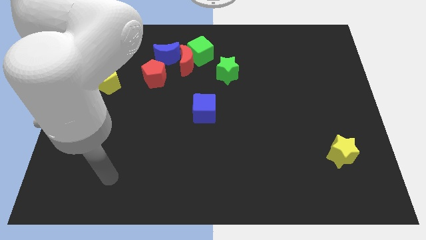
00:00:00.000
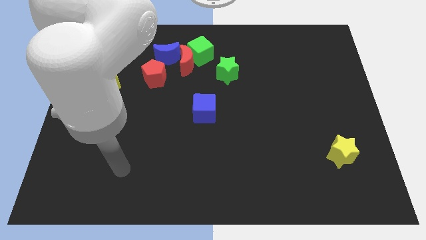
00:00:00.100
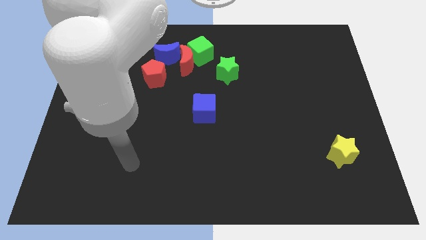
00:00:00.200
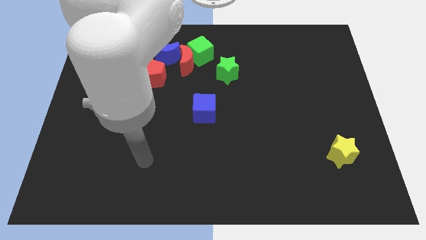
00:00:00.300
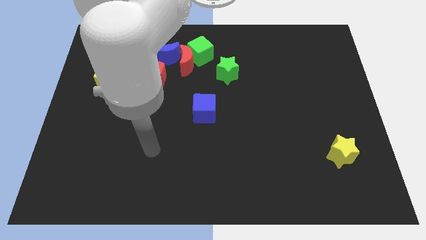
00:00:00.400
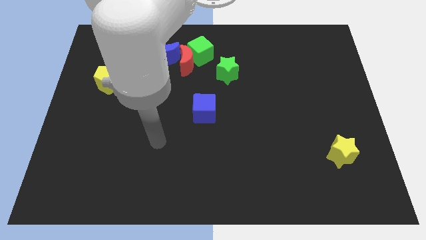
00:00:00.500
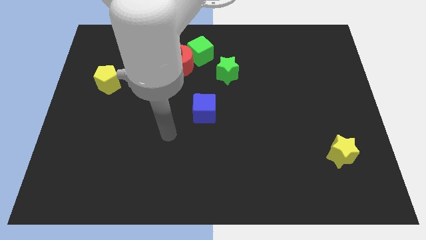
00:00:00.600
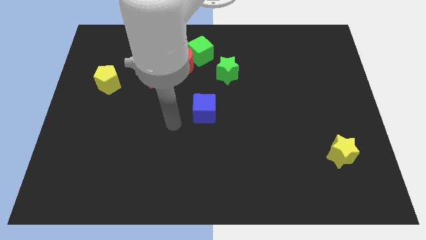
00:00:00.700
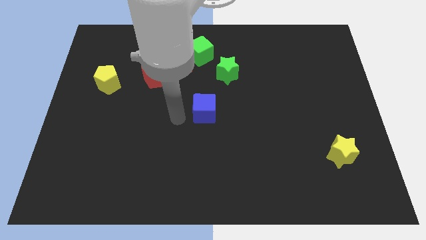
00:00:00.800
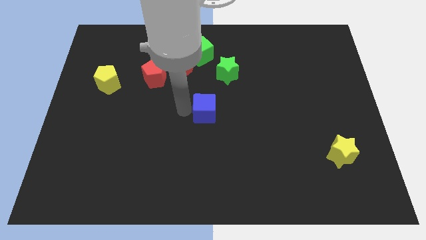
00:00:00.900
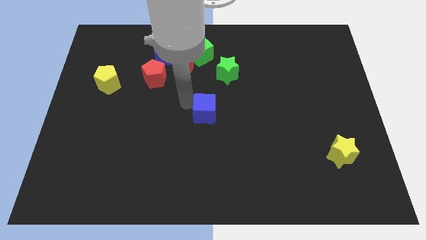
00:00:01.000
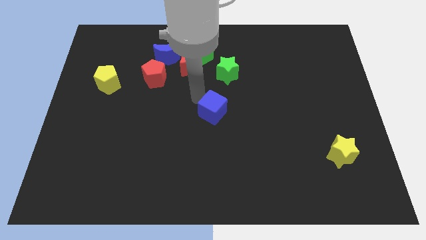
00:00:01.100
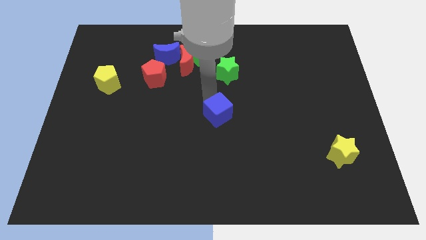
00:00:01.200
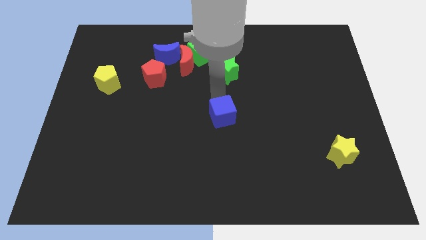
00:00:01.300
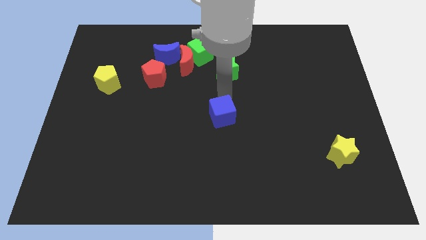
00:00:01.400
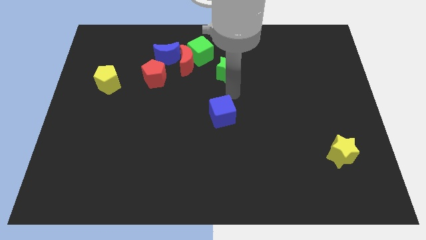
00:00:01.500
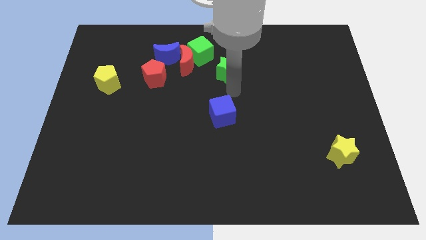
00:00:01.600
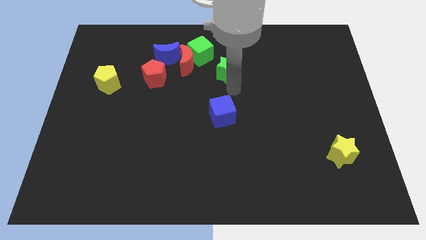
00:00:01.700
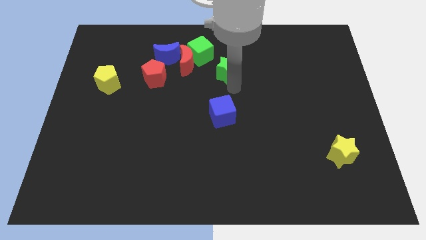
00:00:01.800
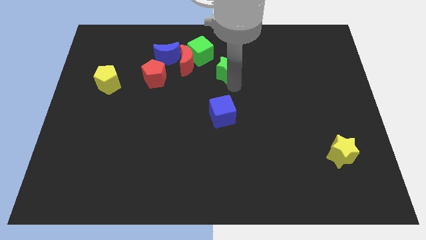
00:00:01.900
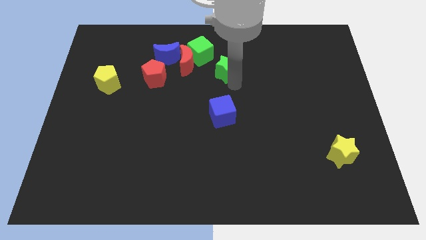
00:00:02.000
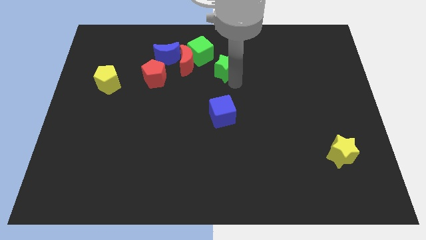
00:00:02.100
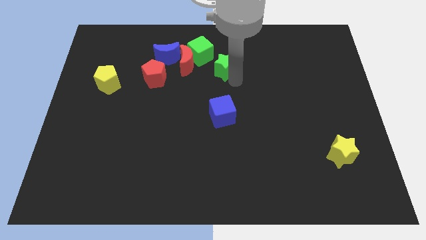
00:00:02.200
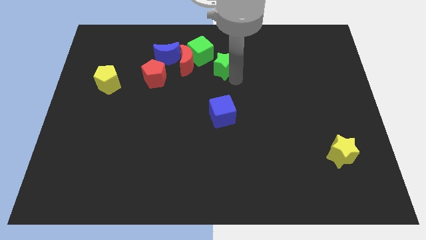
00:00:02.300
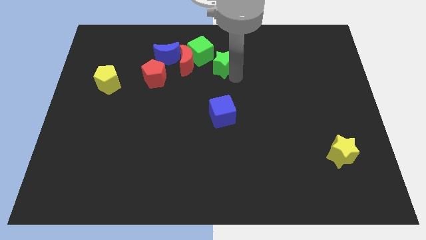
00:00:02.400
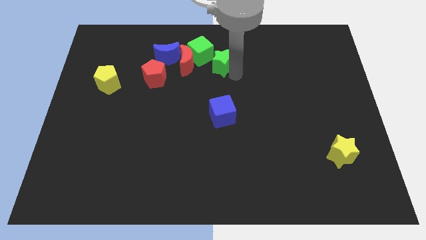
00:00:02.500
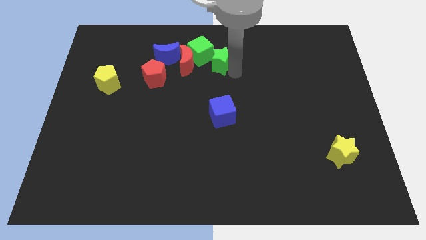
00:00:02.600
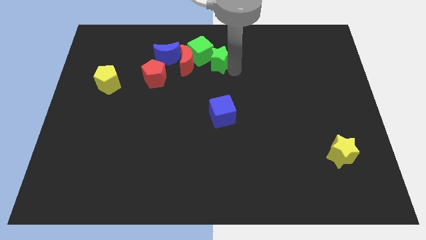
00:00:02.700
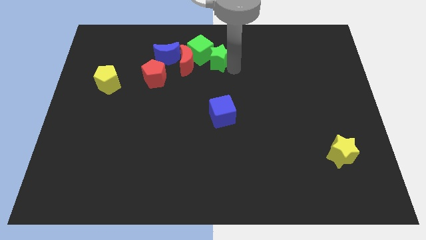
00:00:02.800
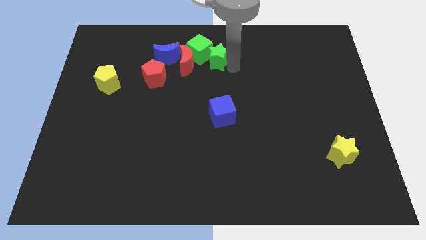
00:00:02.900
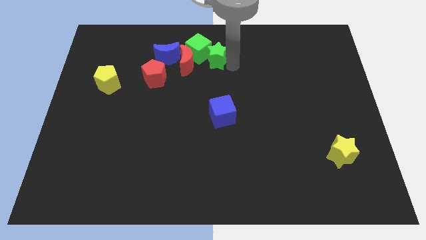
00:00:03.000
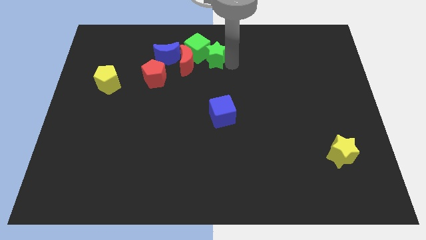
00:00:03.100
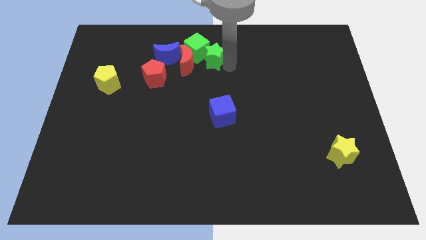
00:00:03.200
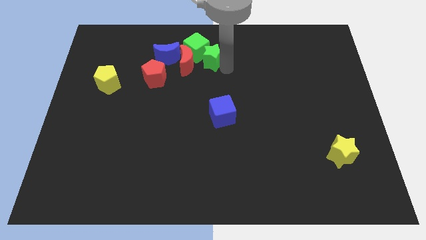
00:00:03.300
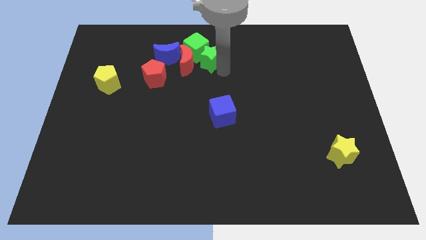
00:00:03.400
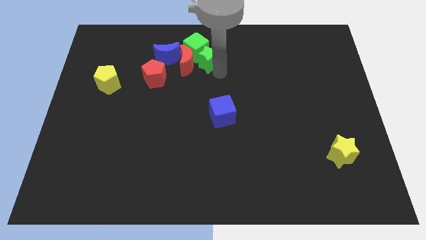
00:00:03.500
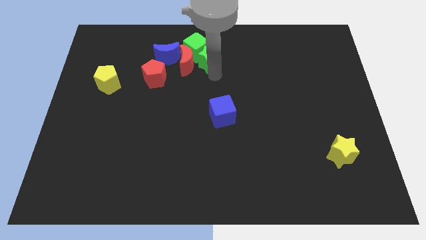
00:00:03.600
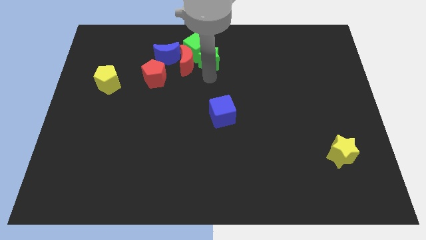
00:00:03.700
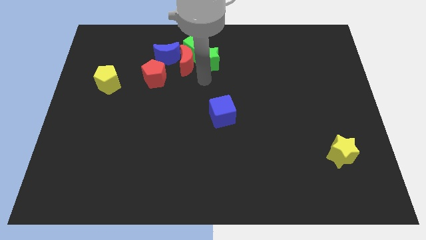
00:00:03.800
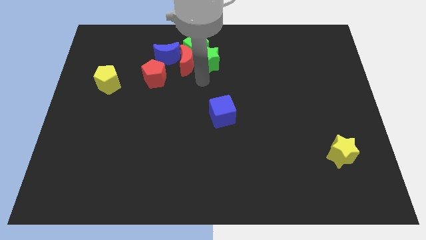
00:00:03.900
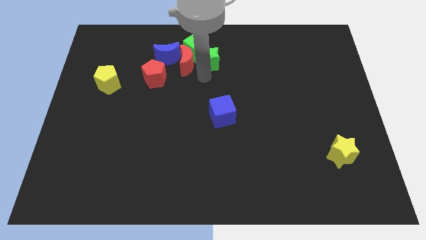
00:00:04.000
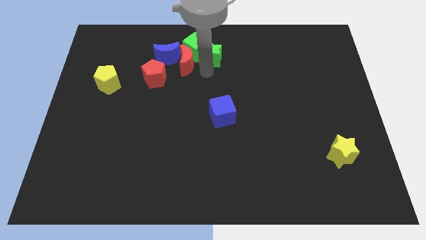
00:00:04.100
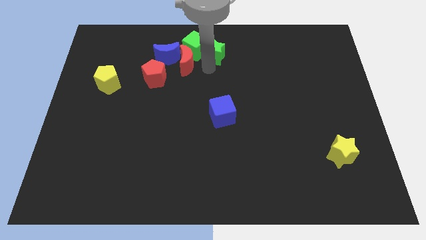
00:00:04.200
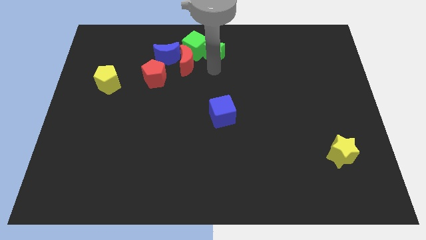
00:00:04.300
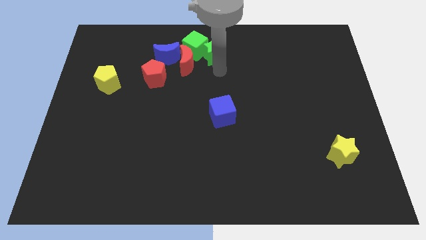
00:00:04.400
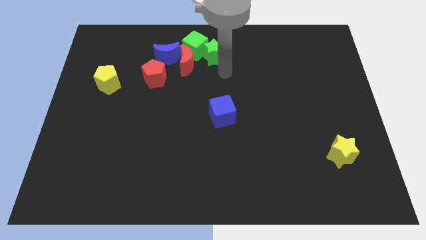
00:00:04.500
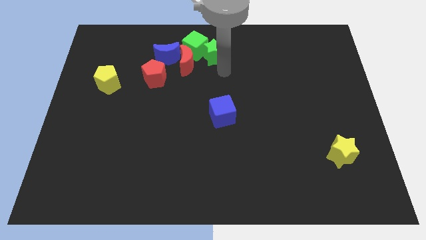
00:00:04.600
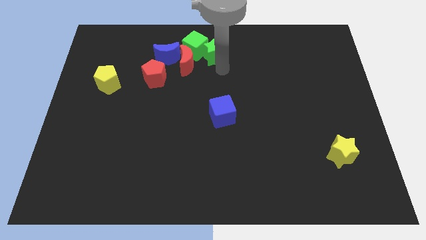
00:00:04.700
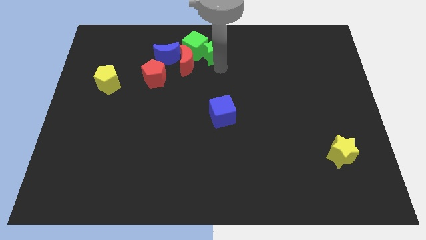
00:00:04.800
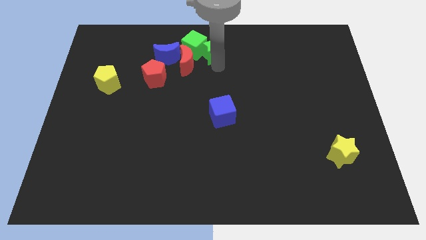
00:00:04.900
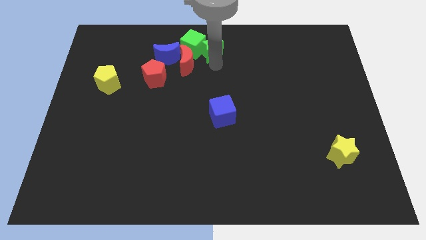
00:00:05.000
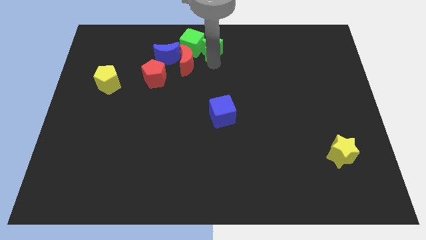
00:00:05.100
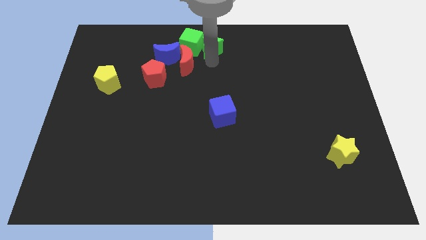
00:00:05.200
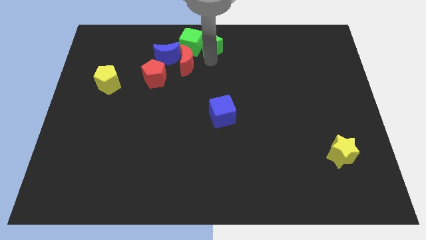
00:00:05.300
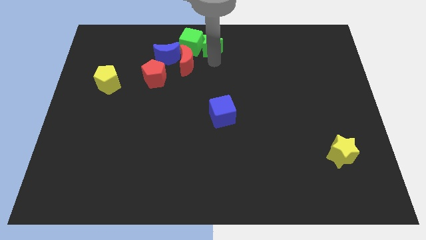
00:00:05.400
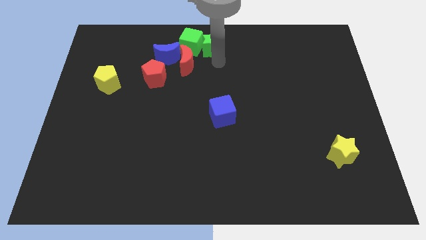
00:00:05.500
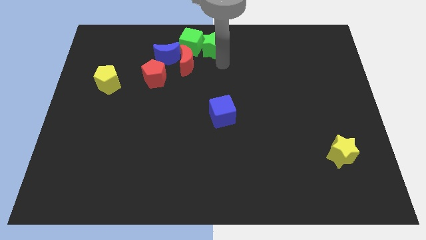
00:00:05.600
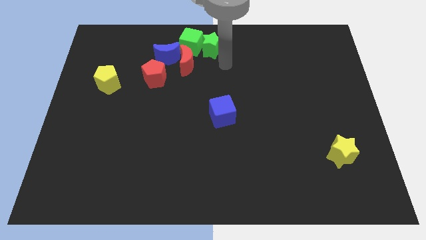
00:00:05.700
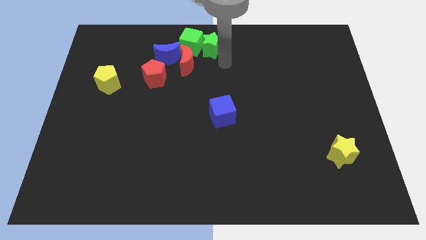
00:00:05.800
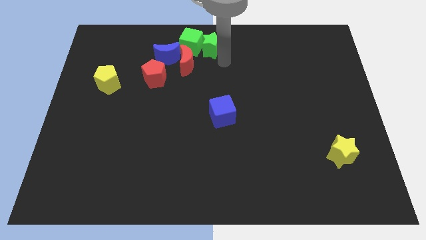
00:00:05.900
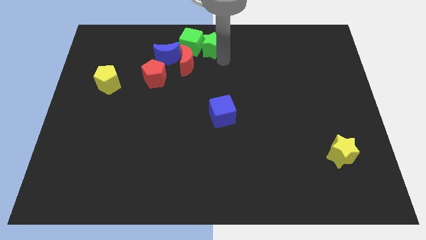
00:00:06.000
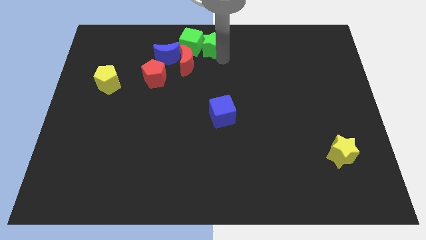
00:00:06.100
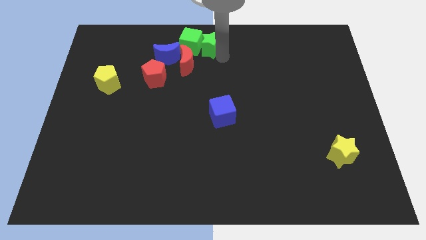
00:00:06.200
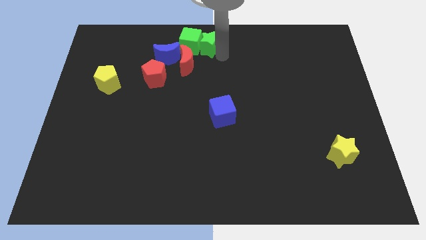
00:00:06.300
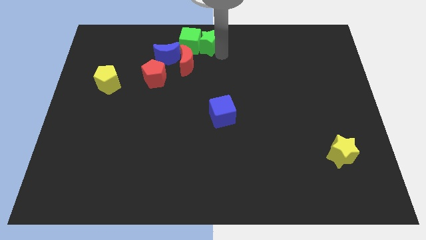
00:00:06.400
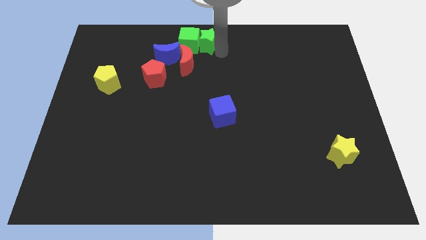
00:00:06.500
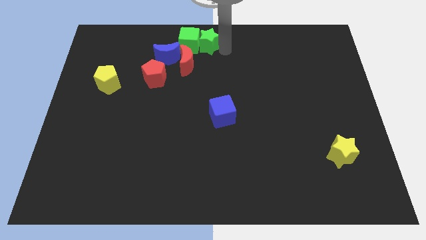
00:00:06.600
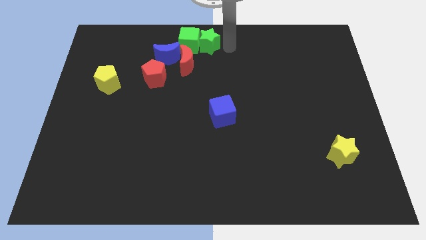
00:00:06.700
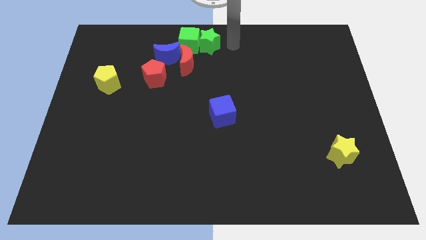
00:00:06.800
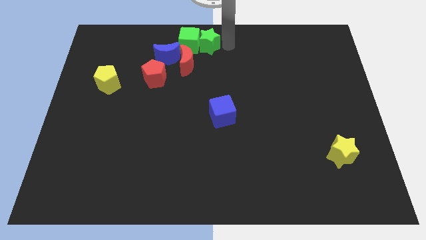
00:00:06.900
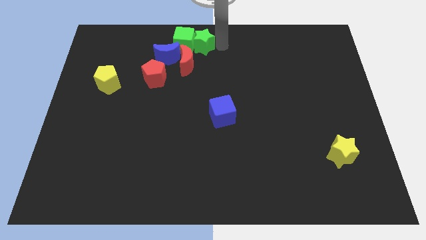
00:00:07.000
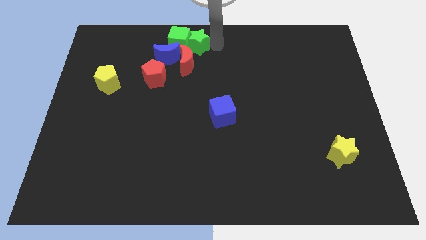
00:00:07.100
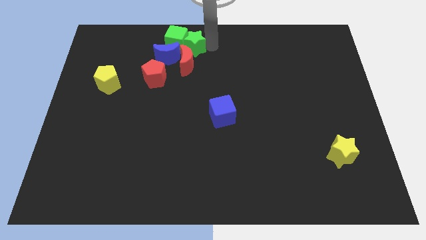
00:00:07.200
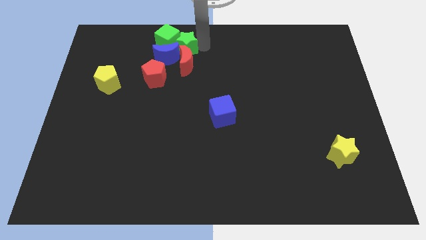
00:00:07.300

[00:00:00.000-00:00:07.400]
move the green star close to the blue moon

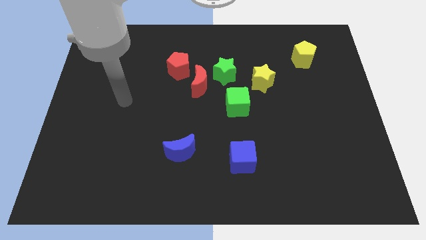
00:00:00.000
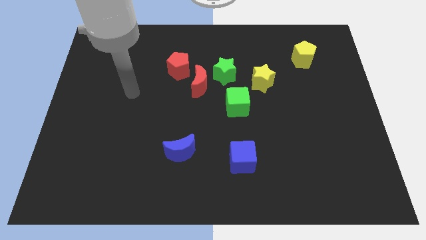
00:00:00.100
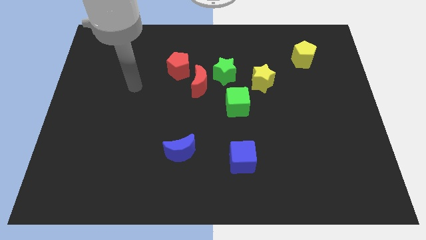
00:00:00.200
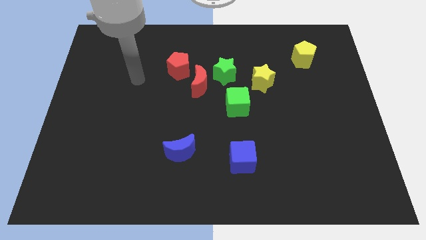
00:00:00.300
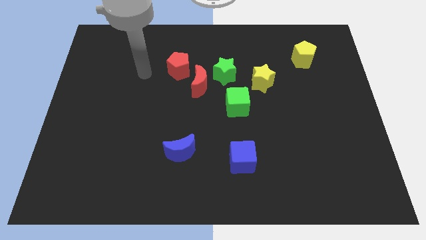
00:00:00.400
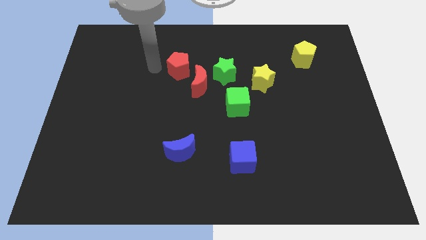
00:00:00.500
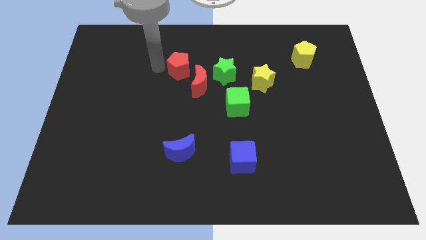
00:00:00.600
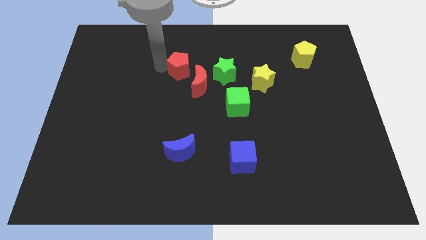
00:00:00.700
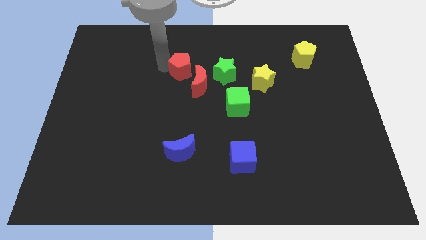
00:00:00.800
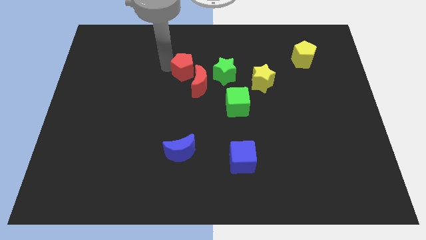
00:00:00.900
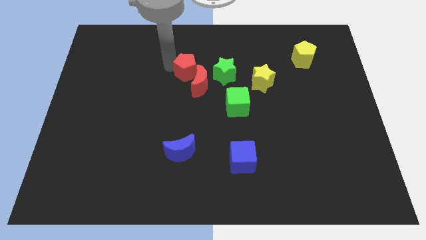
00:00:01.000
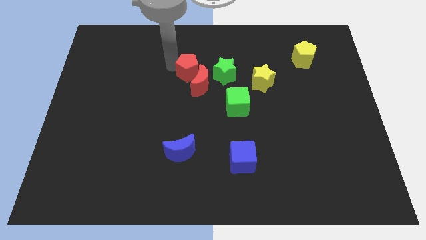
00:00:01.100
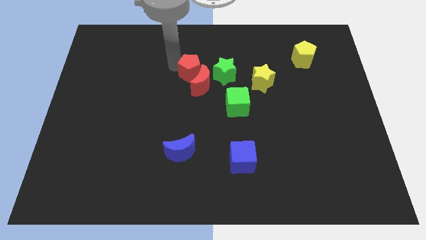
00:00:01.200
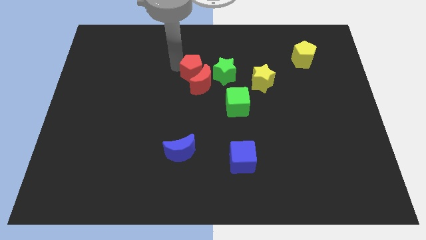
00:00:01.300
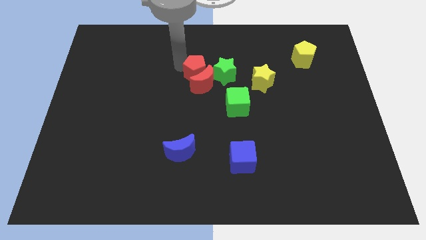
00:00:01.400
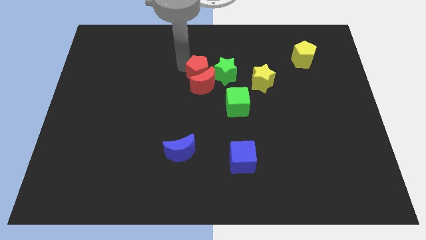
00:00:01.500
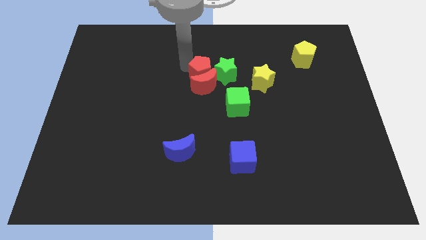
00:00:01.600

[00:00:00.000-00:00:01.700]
slide the red pentagon next to the green star
